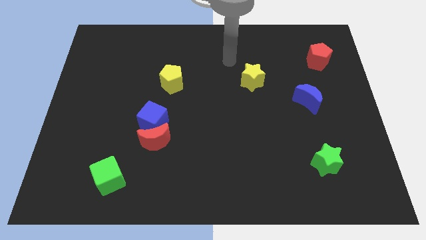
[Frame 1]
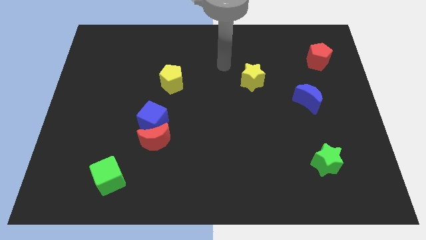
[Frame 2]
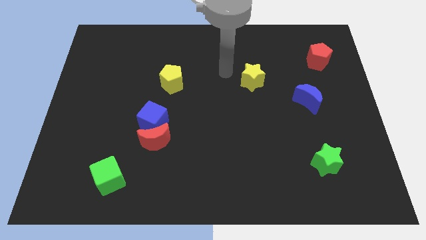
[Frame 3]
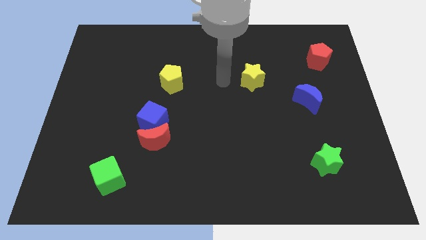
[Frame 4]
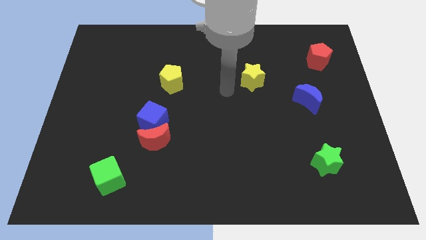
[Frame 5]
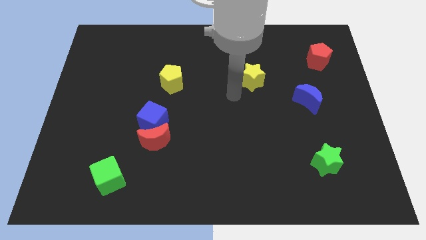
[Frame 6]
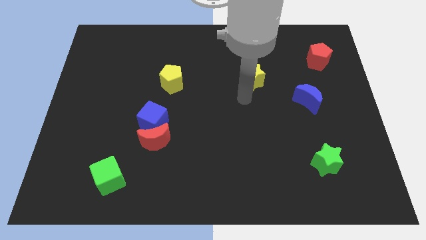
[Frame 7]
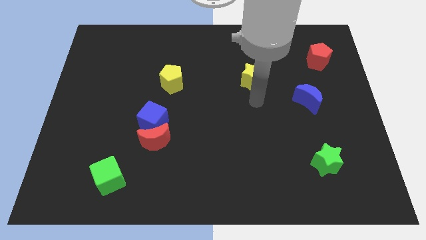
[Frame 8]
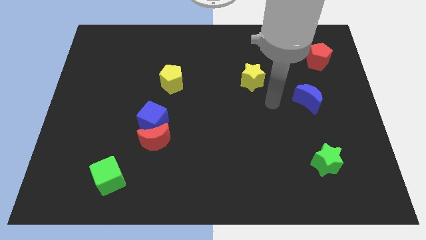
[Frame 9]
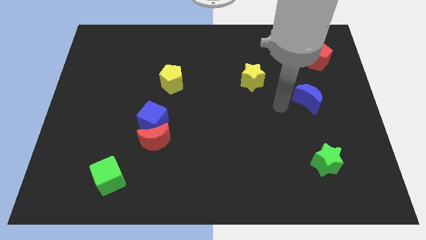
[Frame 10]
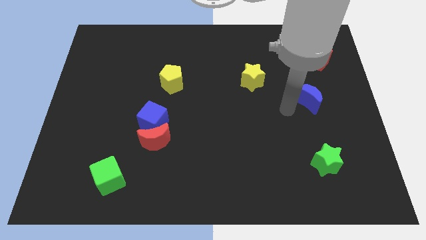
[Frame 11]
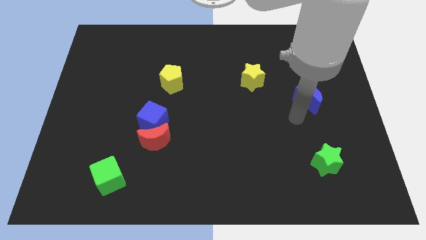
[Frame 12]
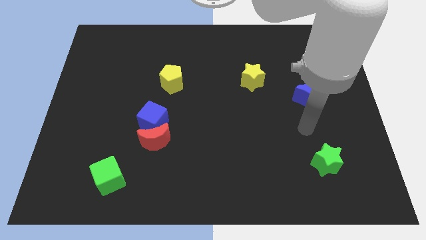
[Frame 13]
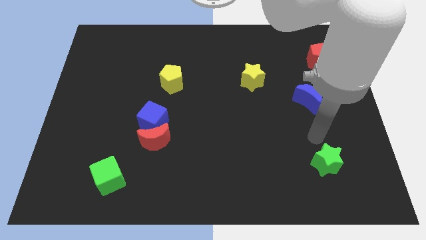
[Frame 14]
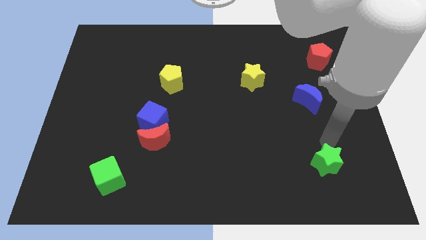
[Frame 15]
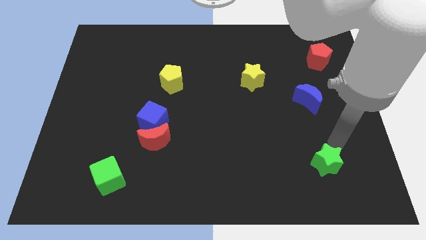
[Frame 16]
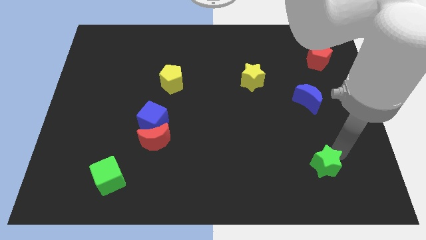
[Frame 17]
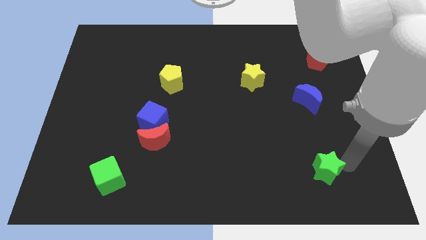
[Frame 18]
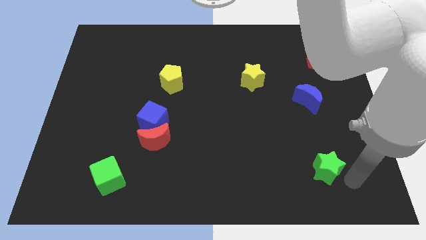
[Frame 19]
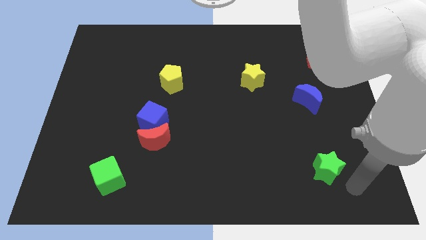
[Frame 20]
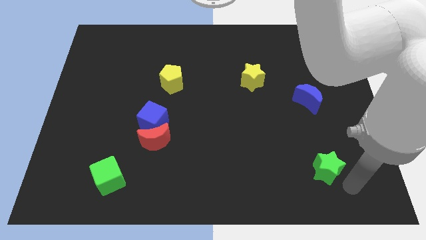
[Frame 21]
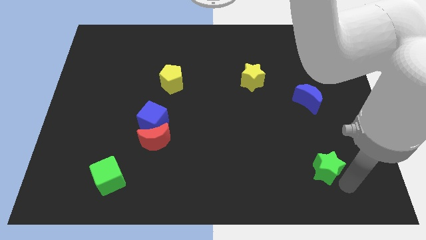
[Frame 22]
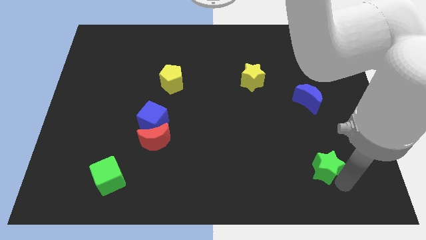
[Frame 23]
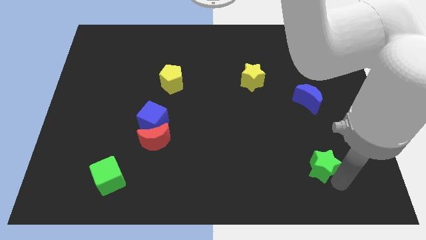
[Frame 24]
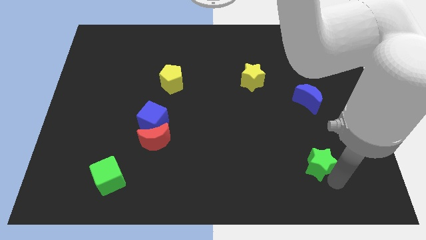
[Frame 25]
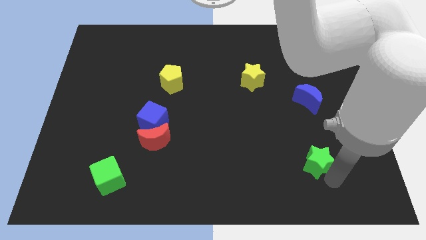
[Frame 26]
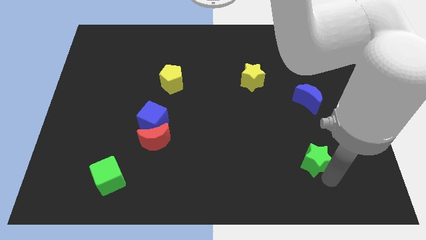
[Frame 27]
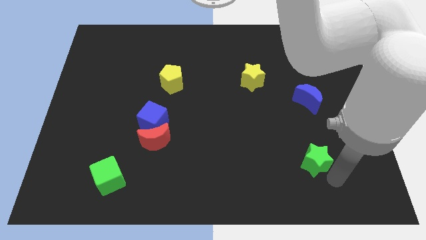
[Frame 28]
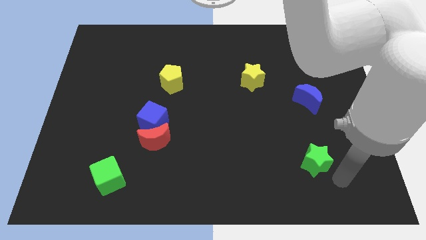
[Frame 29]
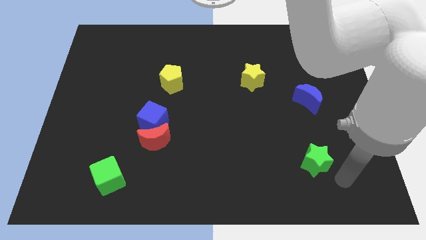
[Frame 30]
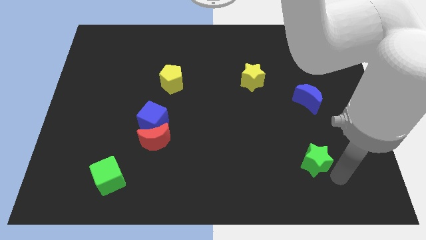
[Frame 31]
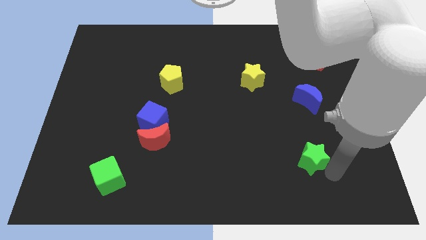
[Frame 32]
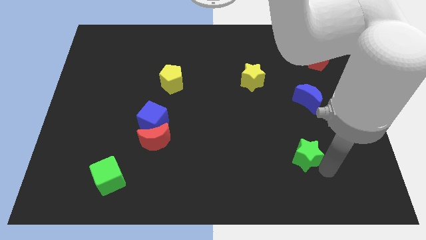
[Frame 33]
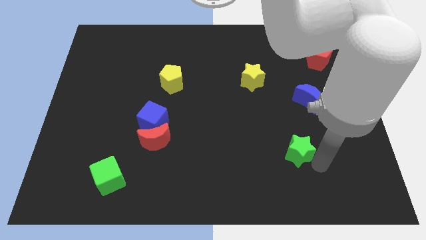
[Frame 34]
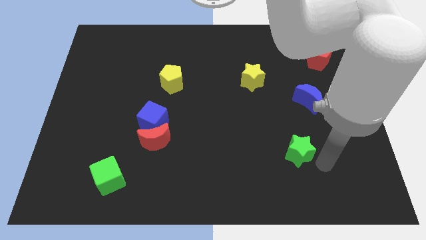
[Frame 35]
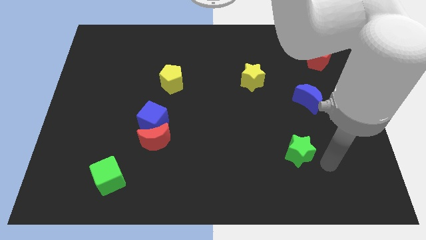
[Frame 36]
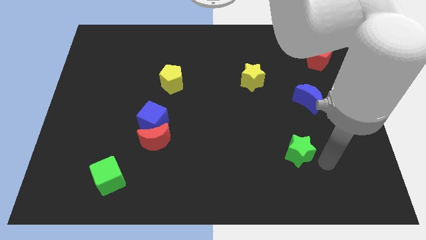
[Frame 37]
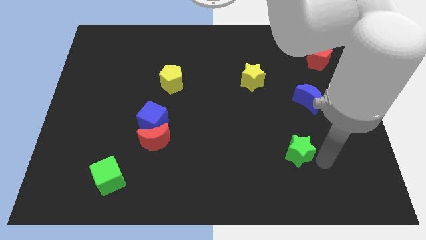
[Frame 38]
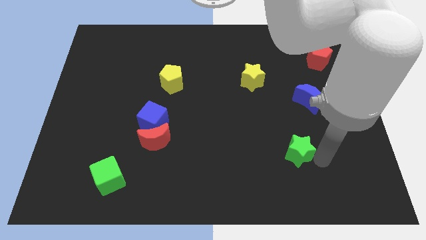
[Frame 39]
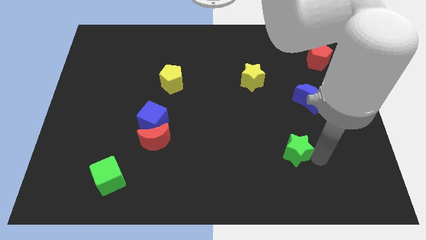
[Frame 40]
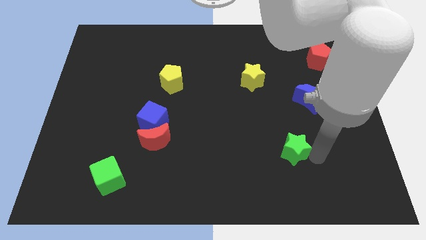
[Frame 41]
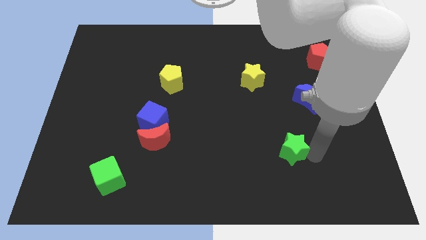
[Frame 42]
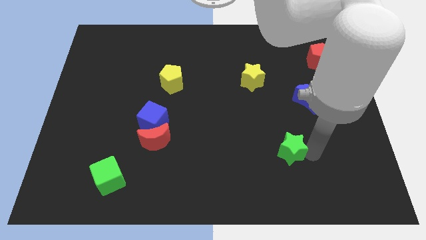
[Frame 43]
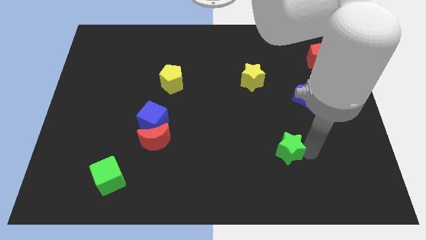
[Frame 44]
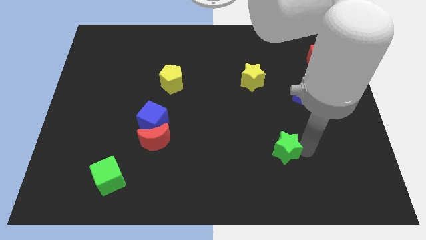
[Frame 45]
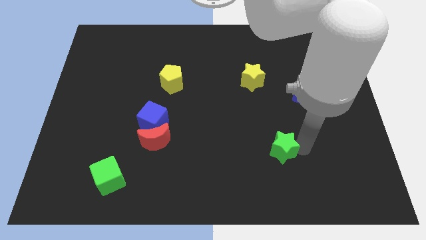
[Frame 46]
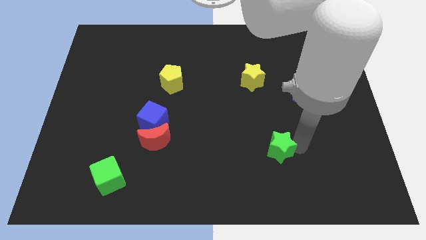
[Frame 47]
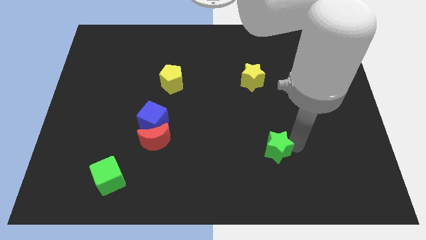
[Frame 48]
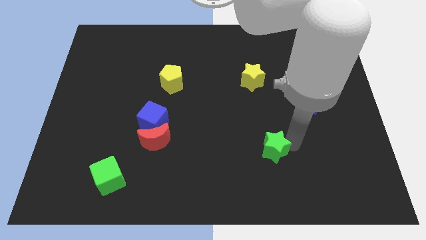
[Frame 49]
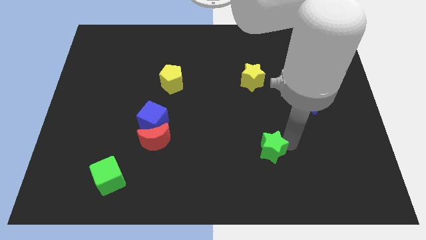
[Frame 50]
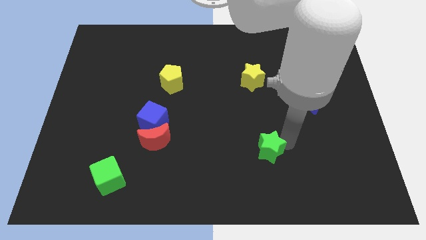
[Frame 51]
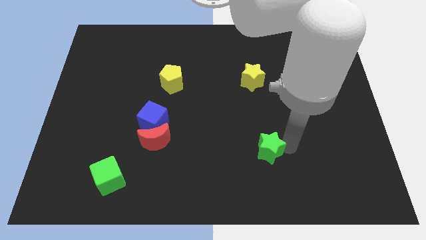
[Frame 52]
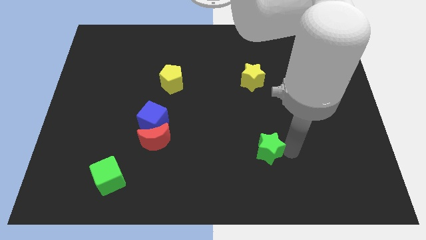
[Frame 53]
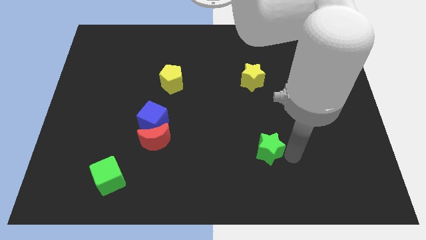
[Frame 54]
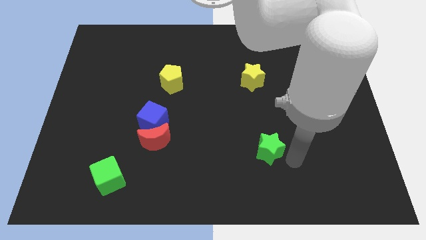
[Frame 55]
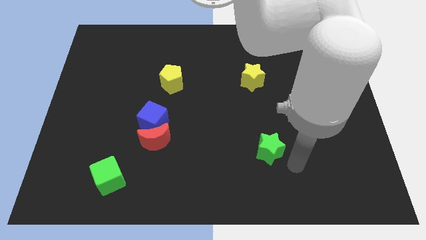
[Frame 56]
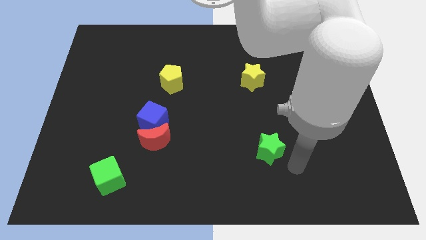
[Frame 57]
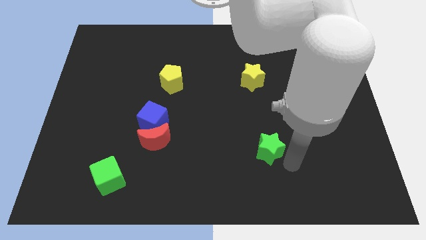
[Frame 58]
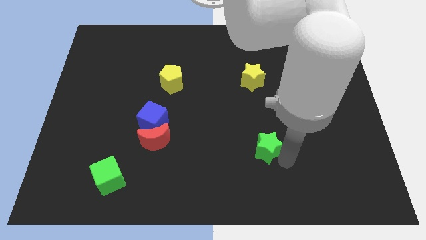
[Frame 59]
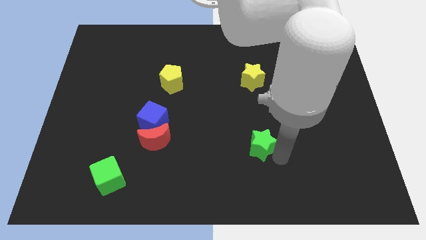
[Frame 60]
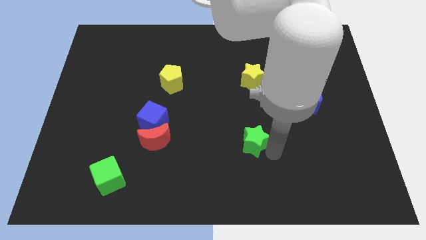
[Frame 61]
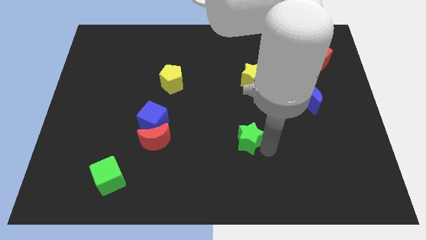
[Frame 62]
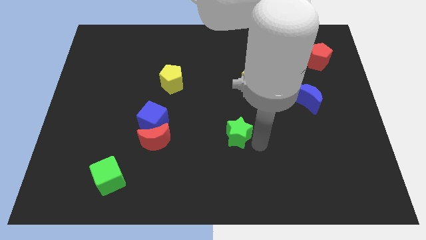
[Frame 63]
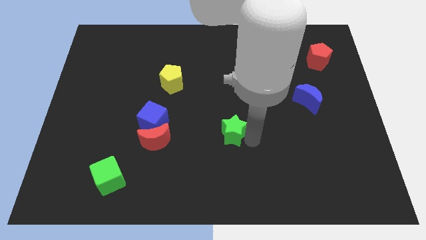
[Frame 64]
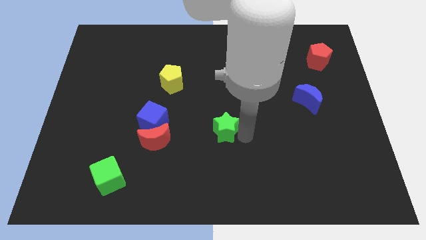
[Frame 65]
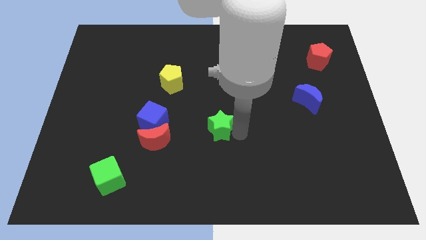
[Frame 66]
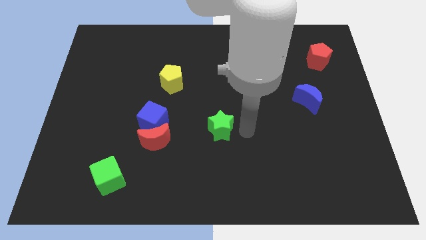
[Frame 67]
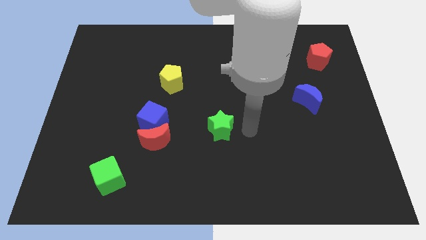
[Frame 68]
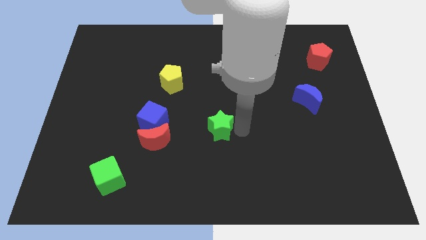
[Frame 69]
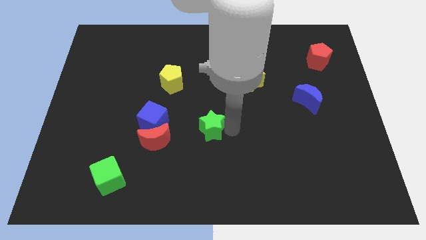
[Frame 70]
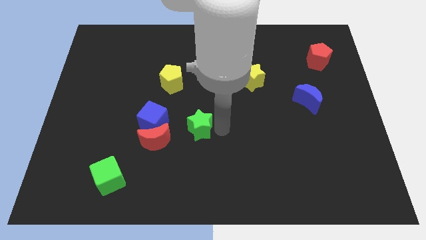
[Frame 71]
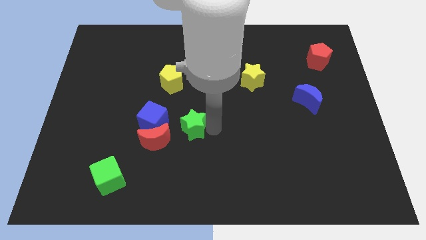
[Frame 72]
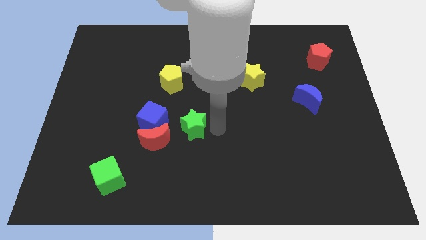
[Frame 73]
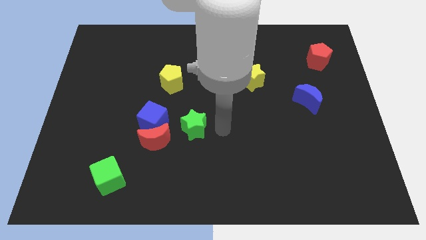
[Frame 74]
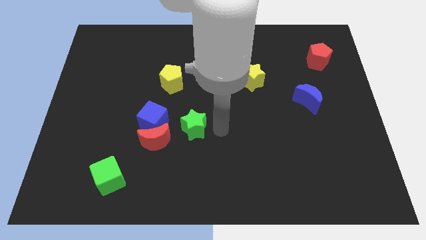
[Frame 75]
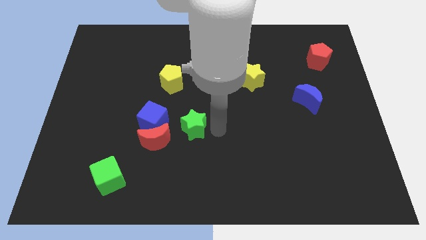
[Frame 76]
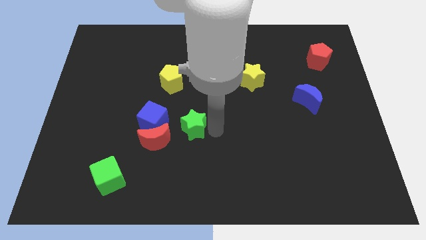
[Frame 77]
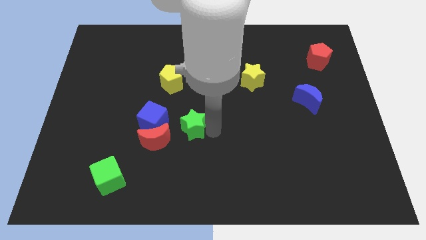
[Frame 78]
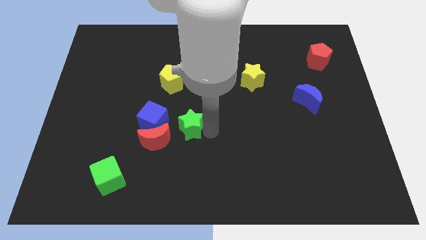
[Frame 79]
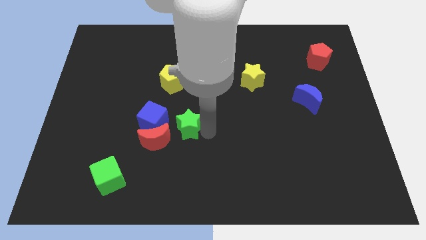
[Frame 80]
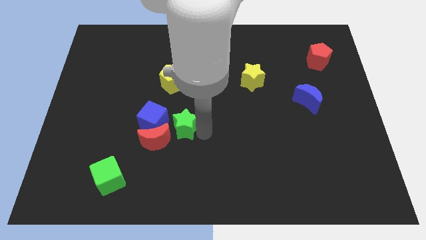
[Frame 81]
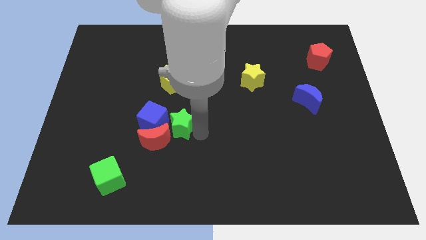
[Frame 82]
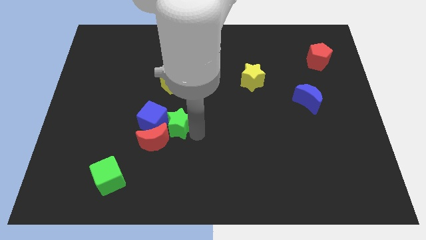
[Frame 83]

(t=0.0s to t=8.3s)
slide the green star close to the blue cube
